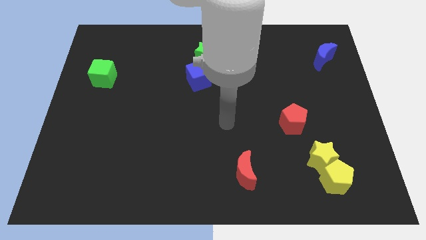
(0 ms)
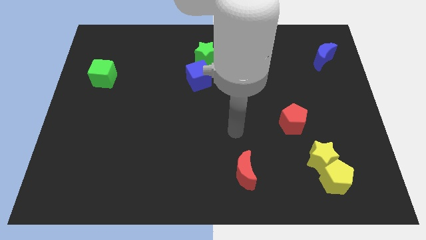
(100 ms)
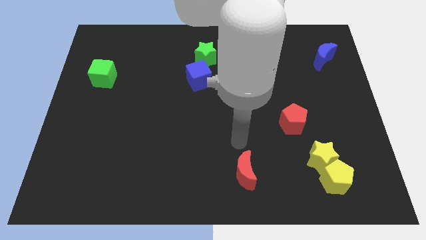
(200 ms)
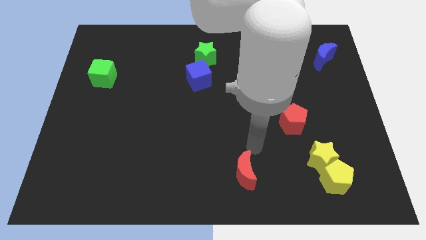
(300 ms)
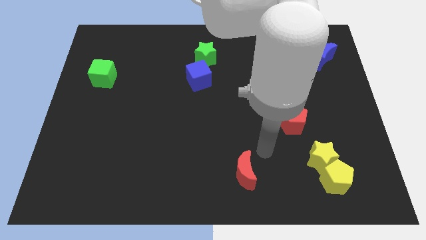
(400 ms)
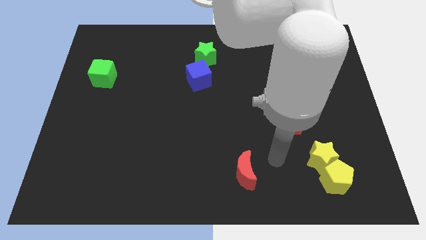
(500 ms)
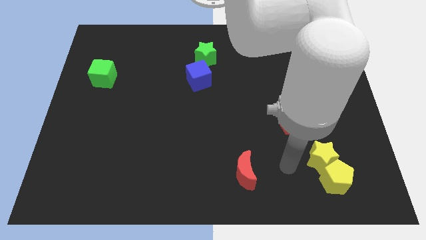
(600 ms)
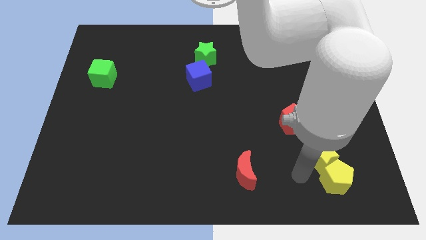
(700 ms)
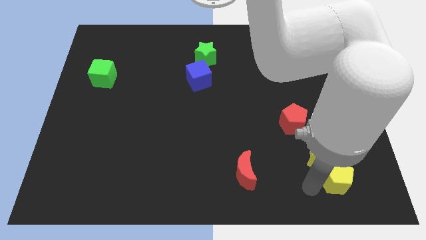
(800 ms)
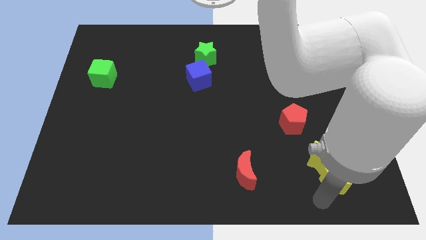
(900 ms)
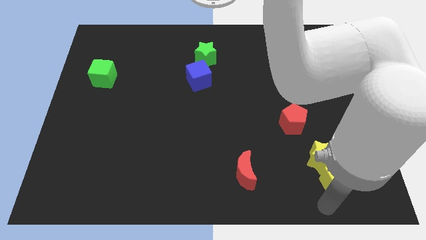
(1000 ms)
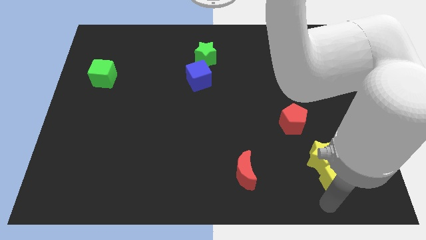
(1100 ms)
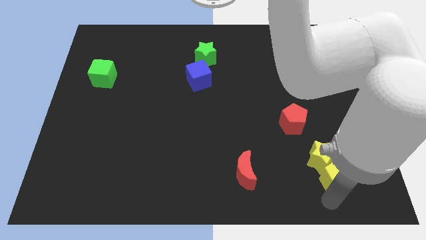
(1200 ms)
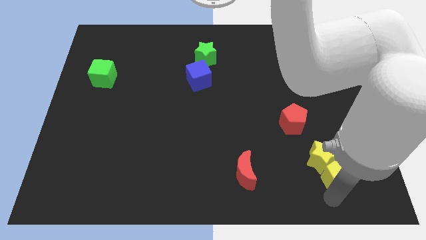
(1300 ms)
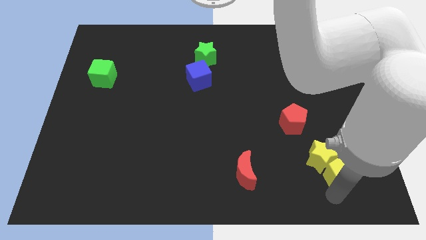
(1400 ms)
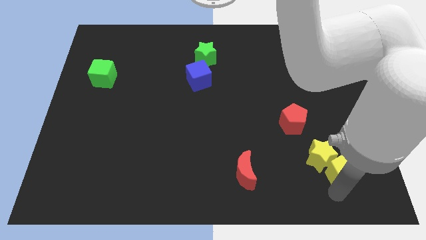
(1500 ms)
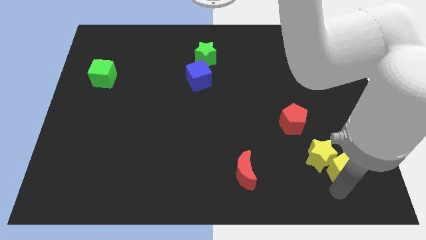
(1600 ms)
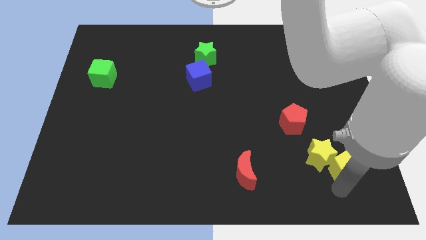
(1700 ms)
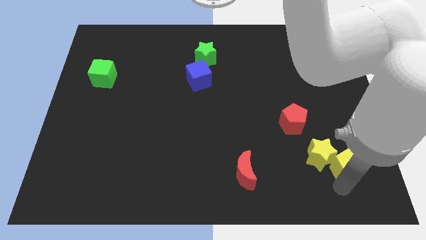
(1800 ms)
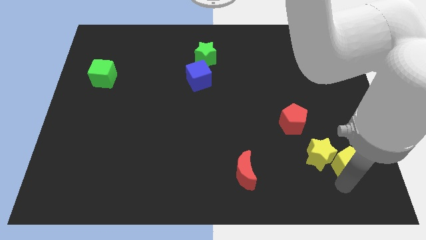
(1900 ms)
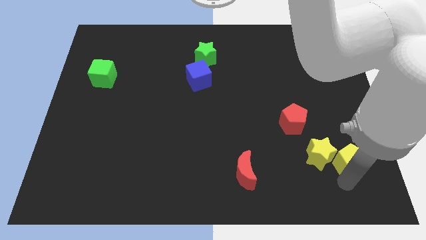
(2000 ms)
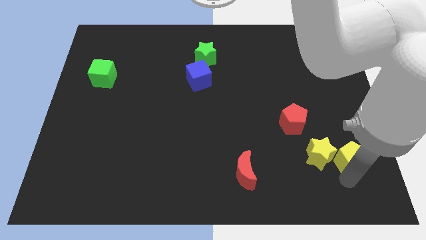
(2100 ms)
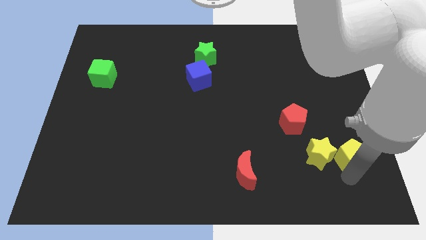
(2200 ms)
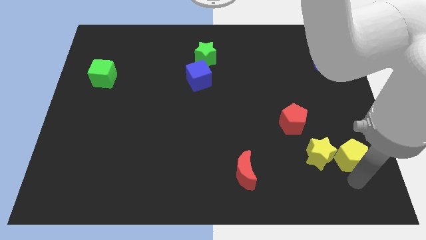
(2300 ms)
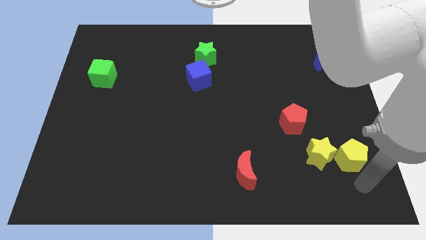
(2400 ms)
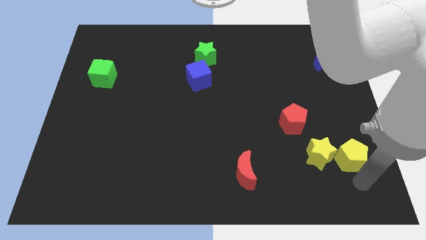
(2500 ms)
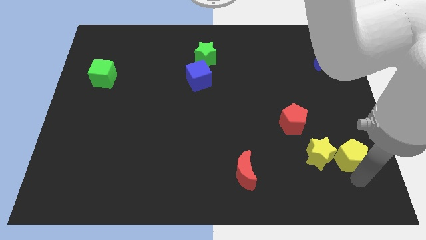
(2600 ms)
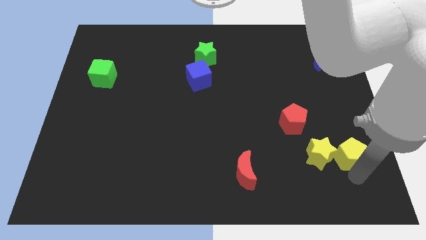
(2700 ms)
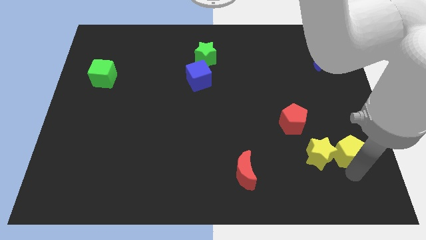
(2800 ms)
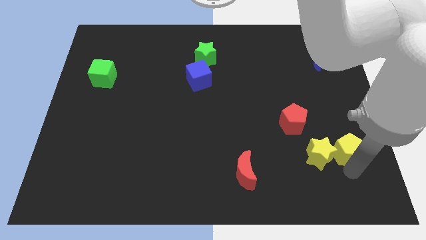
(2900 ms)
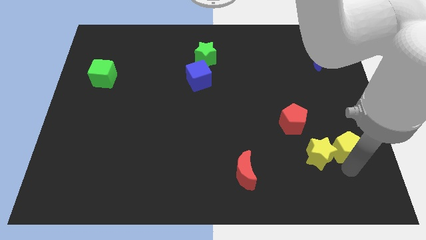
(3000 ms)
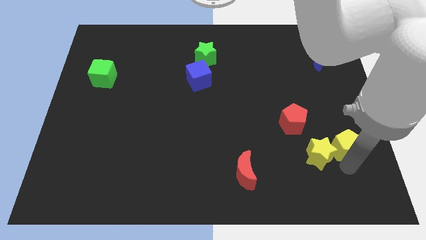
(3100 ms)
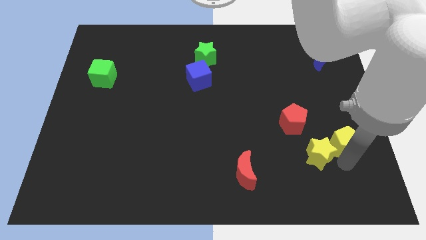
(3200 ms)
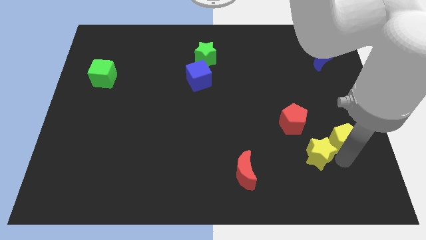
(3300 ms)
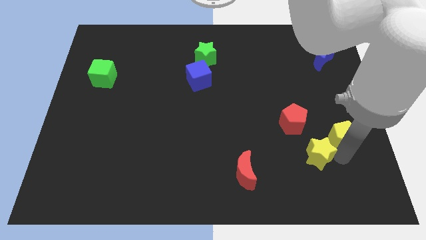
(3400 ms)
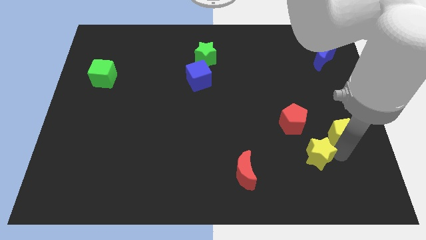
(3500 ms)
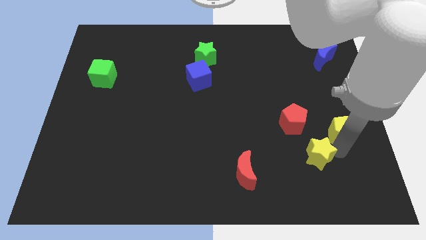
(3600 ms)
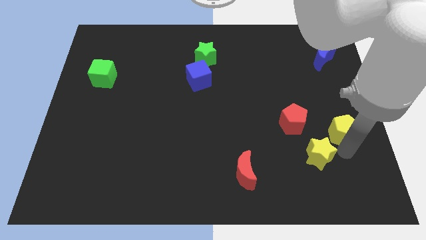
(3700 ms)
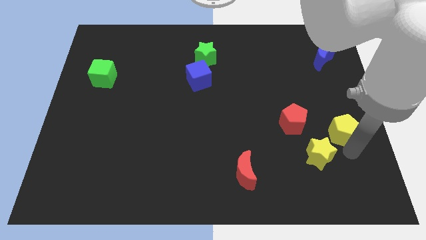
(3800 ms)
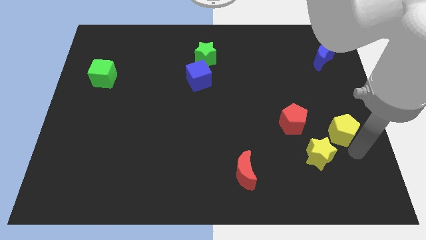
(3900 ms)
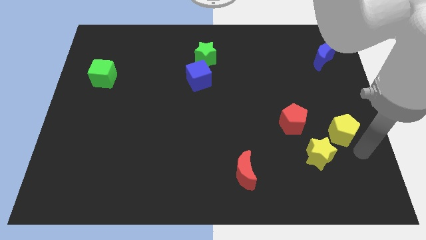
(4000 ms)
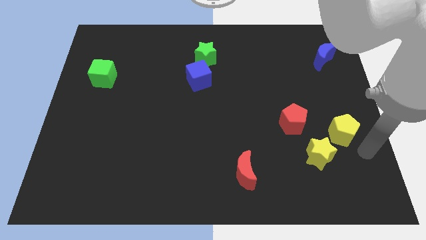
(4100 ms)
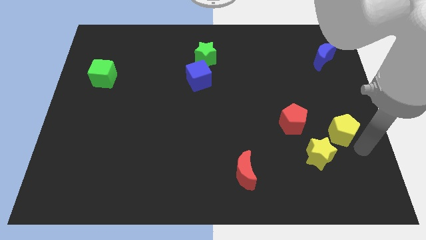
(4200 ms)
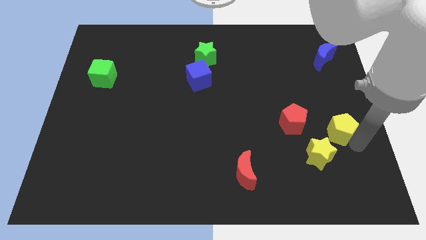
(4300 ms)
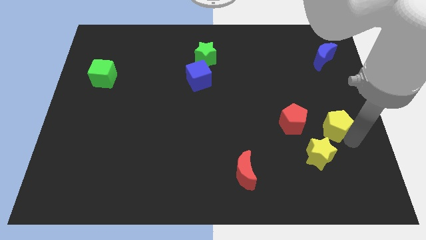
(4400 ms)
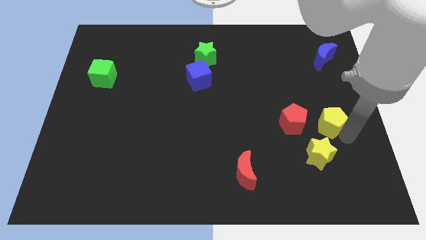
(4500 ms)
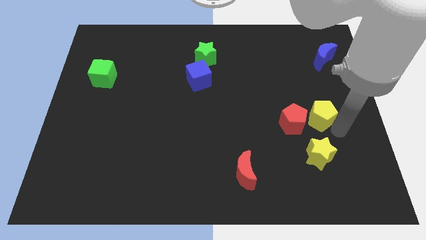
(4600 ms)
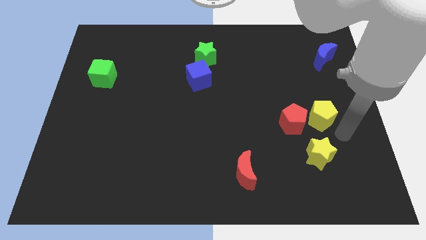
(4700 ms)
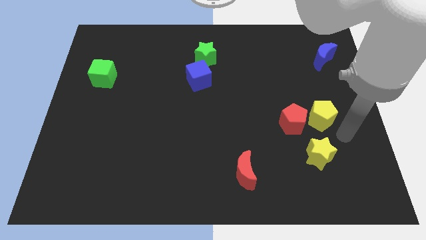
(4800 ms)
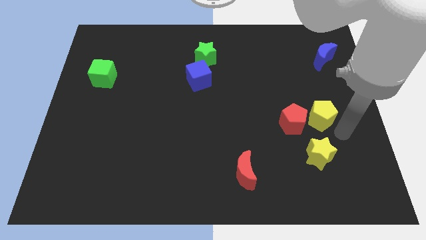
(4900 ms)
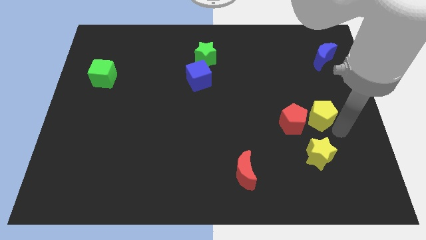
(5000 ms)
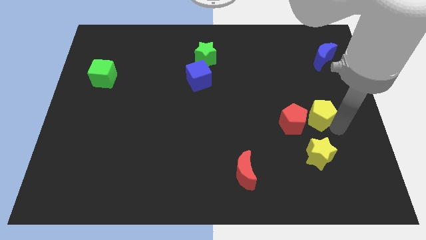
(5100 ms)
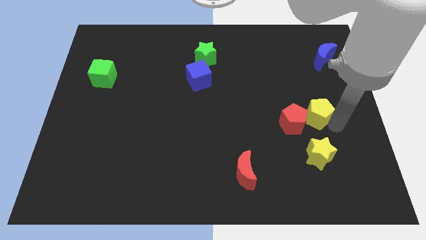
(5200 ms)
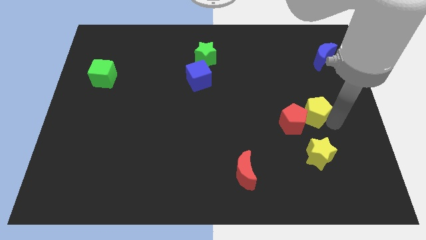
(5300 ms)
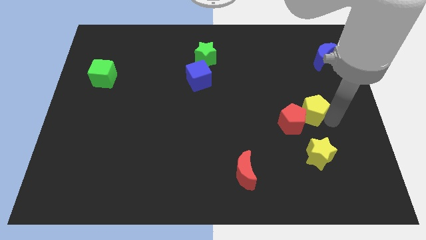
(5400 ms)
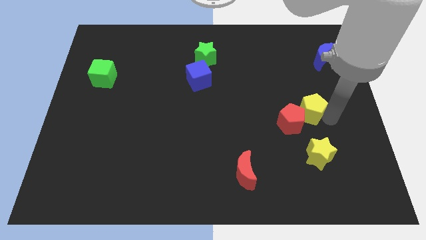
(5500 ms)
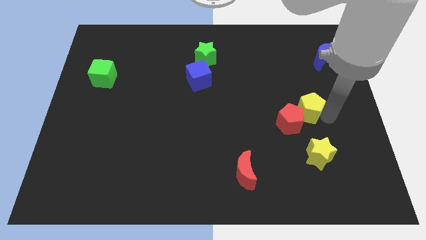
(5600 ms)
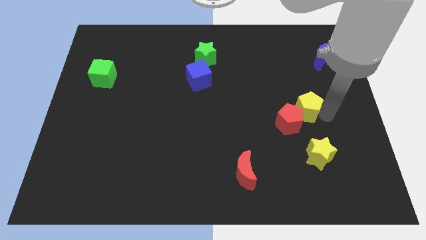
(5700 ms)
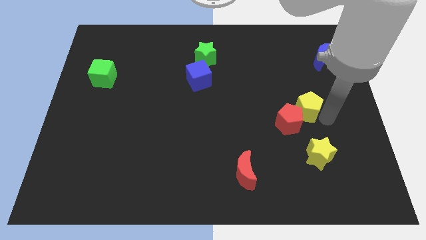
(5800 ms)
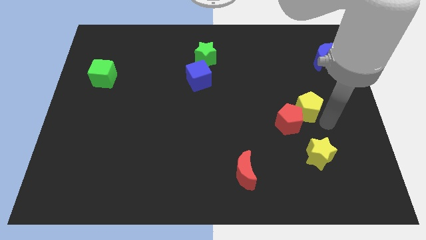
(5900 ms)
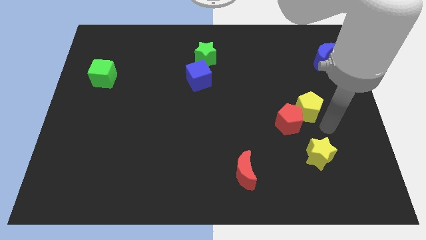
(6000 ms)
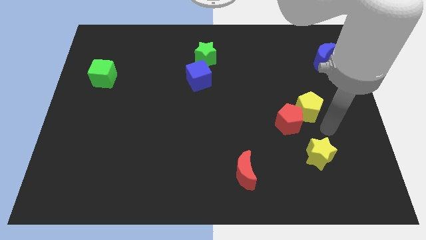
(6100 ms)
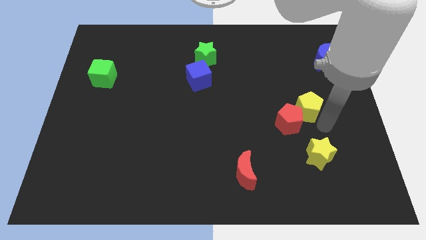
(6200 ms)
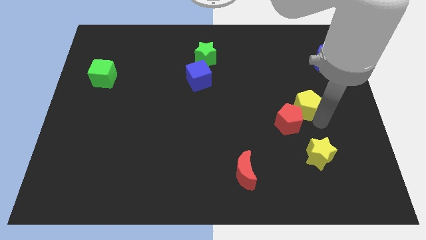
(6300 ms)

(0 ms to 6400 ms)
move the yellow pentagon above the red pentagon

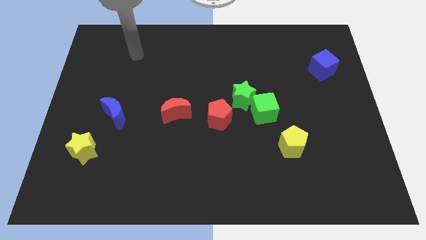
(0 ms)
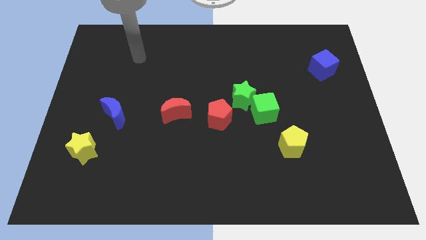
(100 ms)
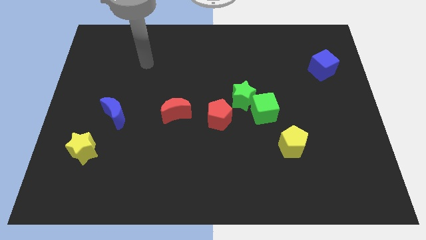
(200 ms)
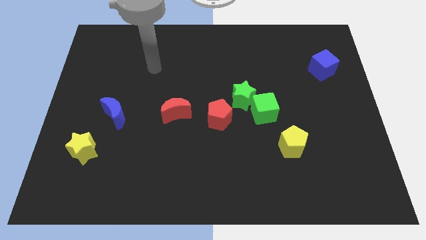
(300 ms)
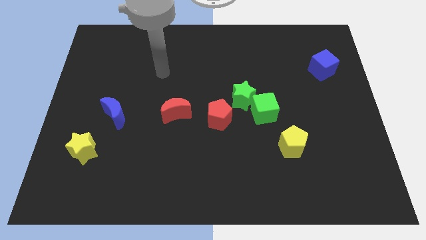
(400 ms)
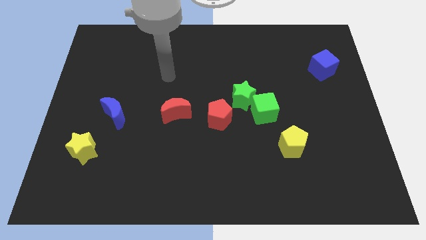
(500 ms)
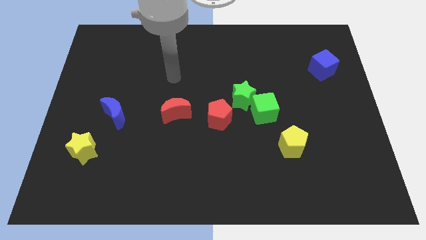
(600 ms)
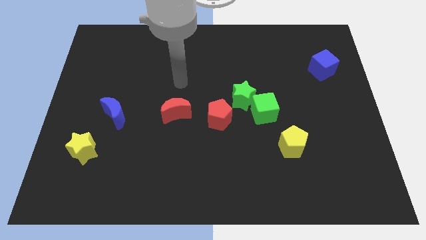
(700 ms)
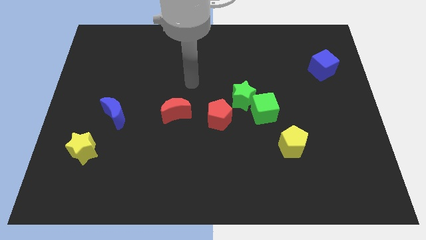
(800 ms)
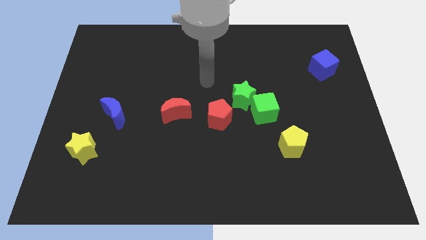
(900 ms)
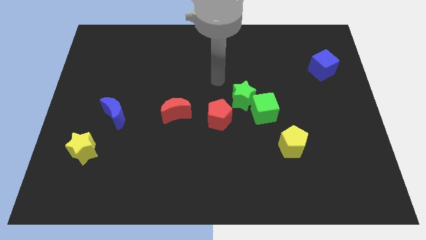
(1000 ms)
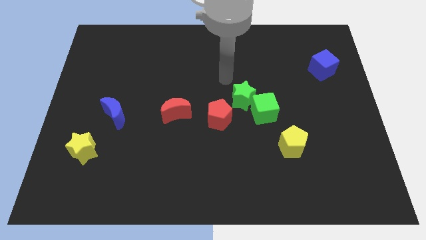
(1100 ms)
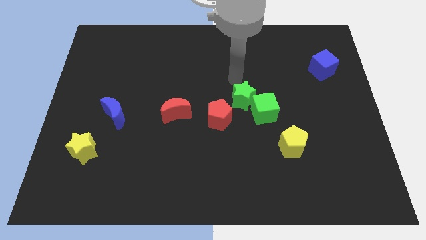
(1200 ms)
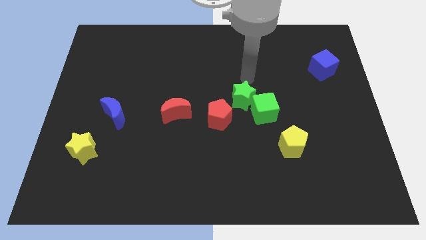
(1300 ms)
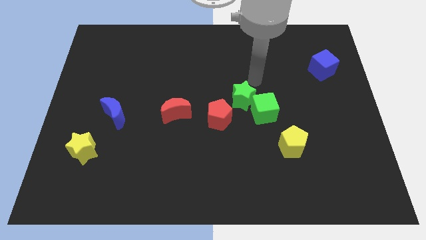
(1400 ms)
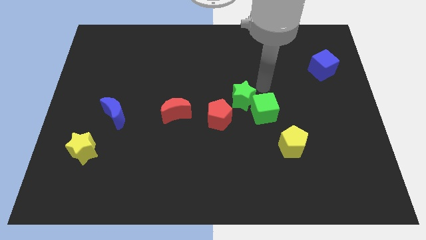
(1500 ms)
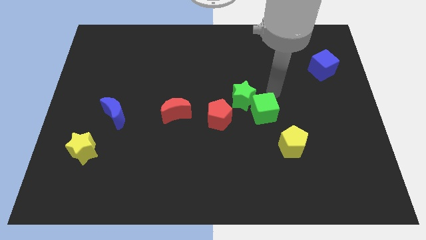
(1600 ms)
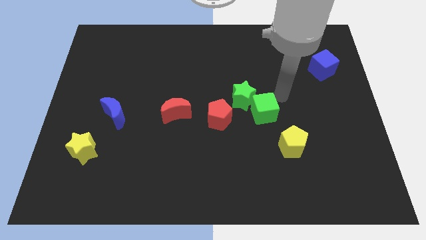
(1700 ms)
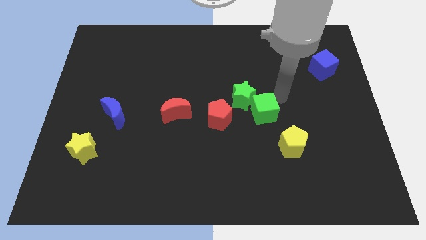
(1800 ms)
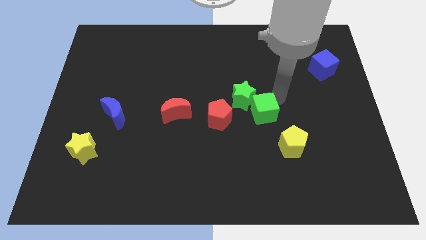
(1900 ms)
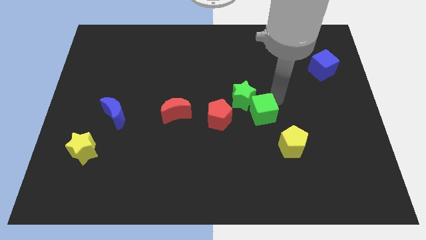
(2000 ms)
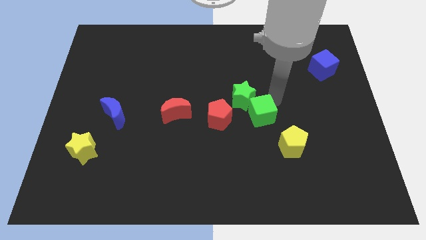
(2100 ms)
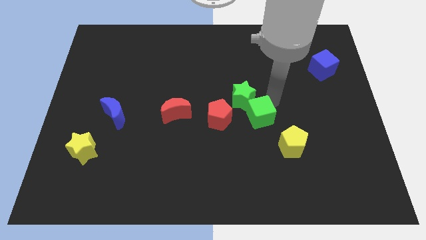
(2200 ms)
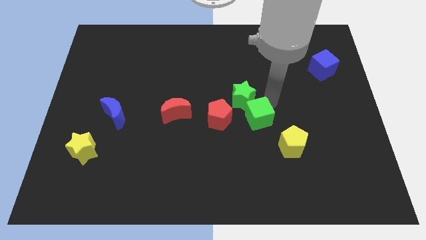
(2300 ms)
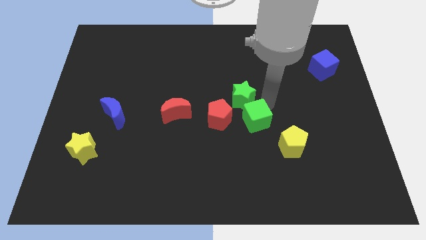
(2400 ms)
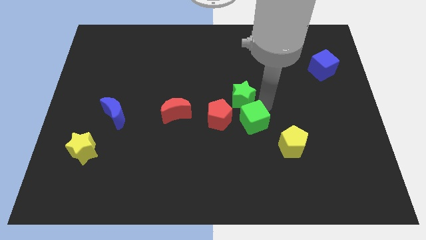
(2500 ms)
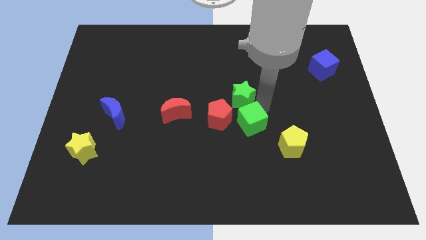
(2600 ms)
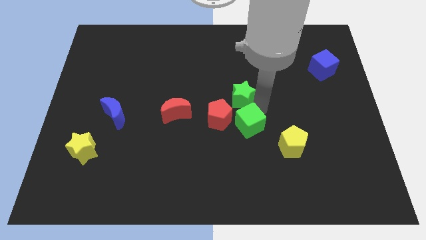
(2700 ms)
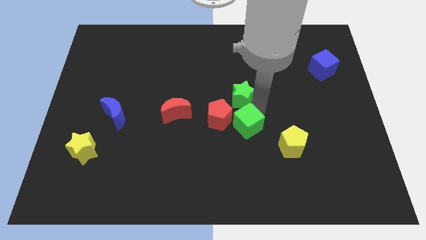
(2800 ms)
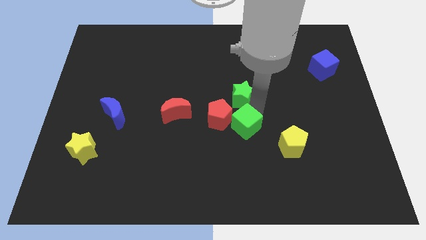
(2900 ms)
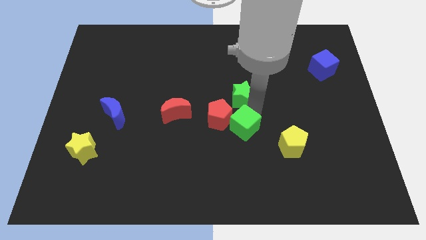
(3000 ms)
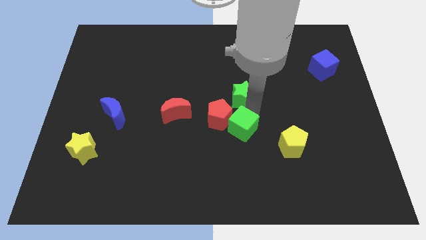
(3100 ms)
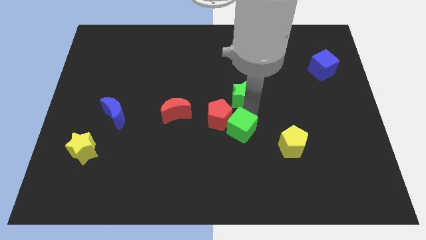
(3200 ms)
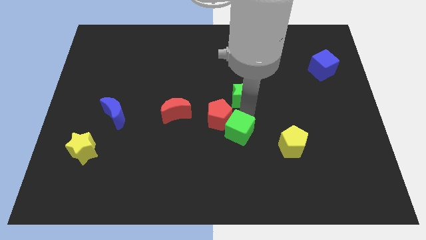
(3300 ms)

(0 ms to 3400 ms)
push the green cube below the red pentagon
